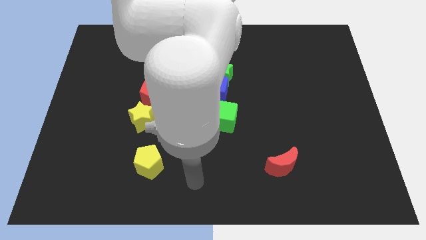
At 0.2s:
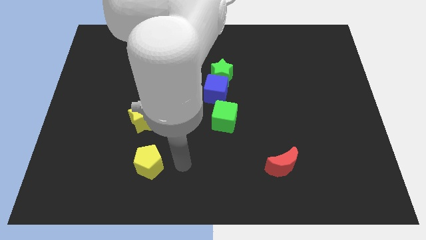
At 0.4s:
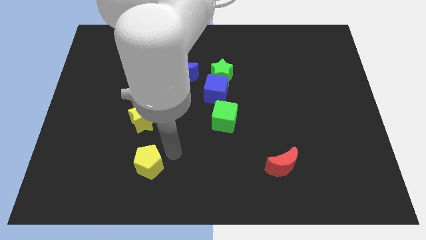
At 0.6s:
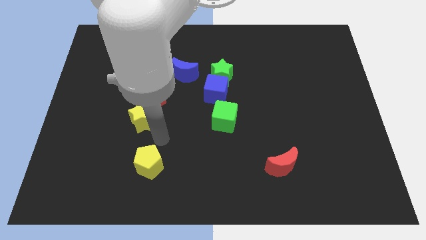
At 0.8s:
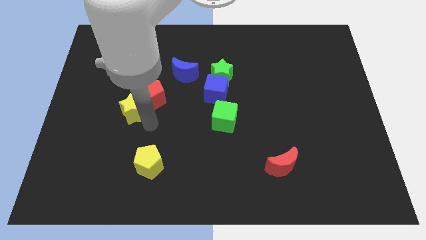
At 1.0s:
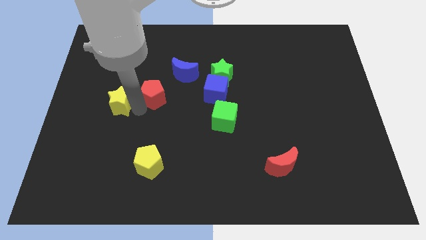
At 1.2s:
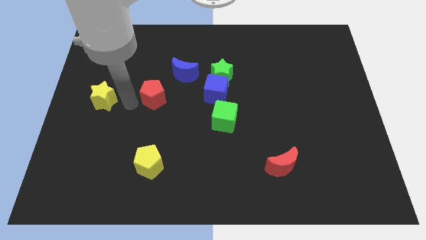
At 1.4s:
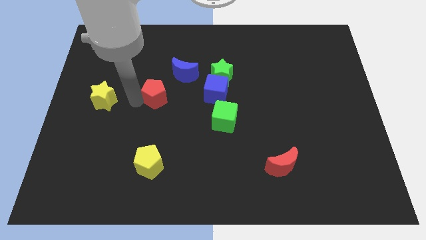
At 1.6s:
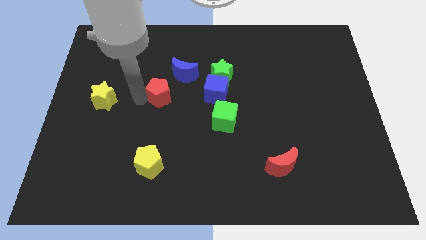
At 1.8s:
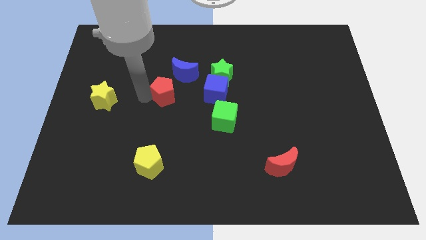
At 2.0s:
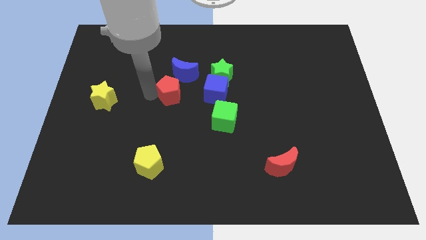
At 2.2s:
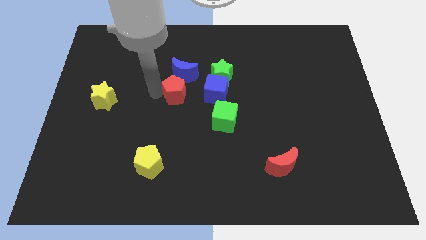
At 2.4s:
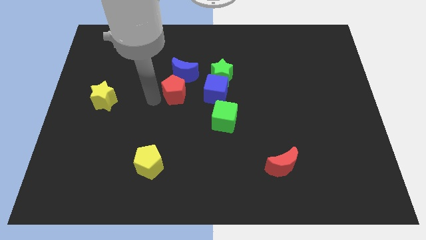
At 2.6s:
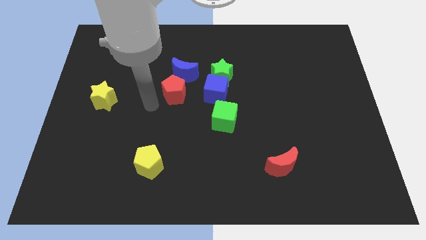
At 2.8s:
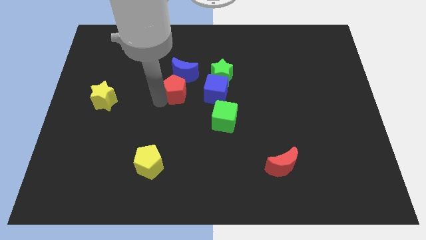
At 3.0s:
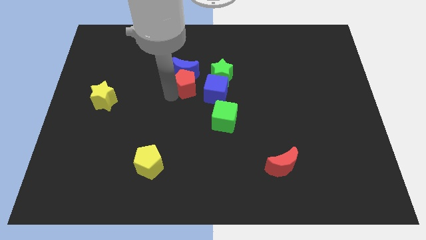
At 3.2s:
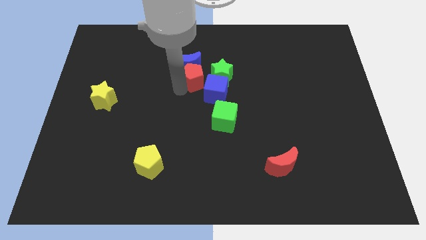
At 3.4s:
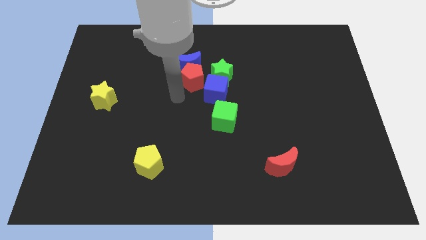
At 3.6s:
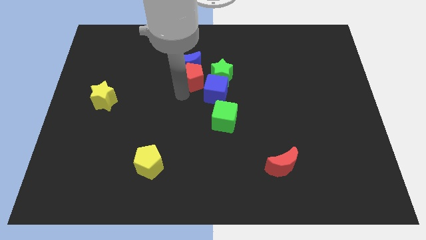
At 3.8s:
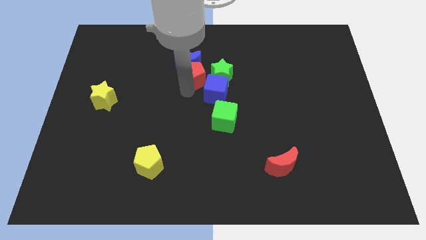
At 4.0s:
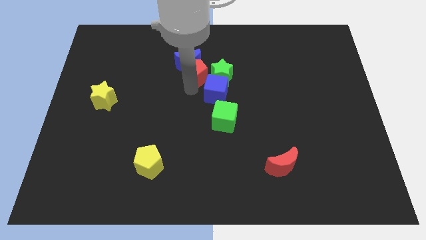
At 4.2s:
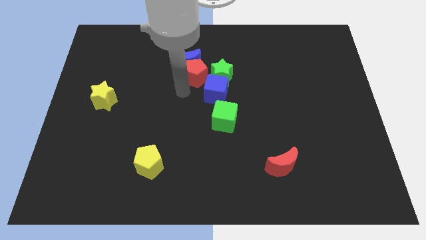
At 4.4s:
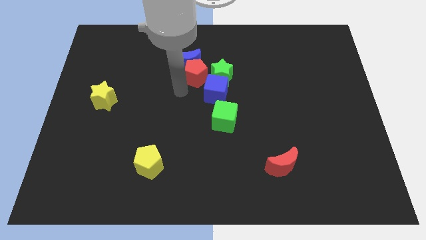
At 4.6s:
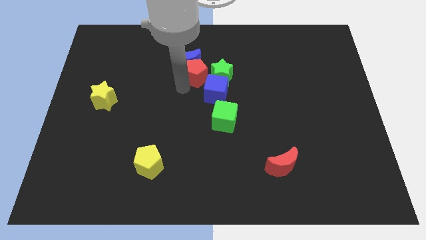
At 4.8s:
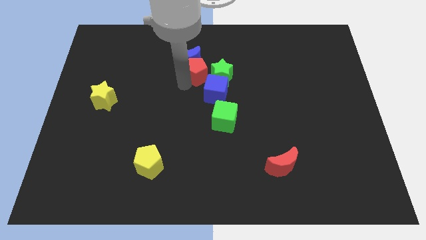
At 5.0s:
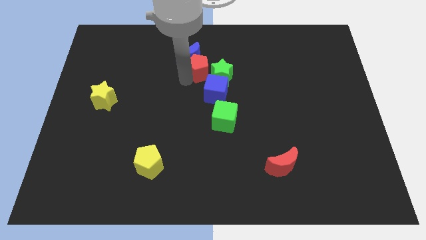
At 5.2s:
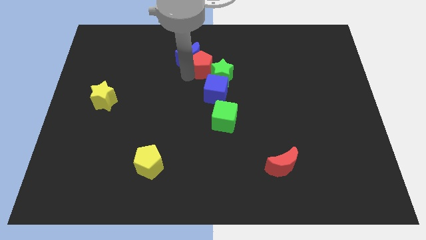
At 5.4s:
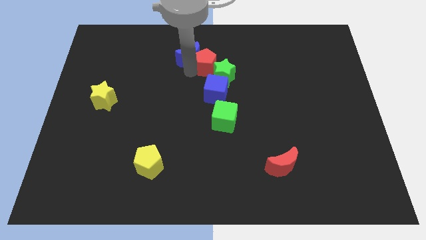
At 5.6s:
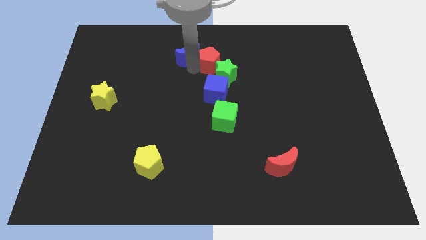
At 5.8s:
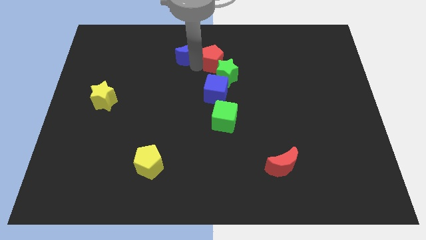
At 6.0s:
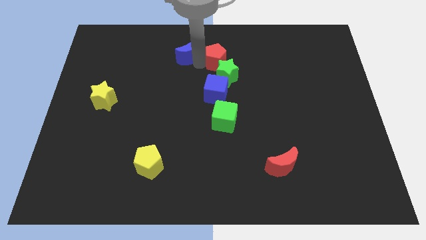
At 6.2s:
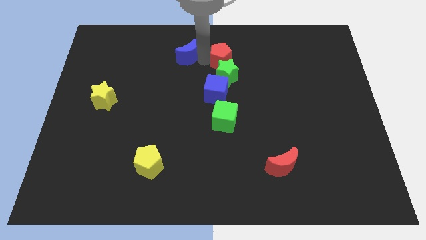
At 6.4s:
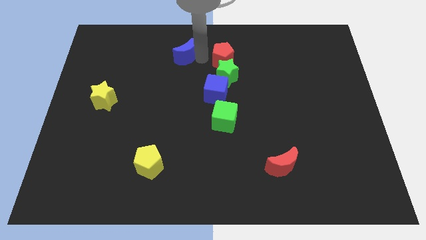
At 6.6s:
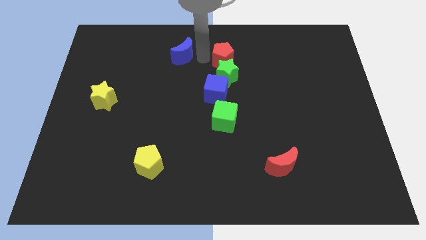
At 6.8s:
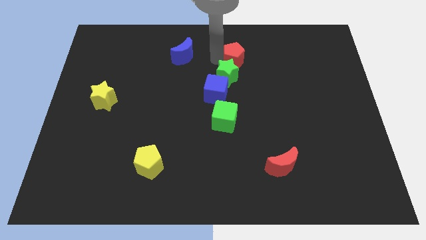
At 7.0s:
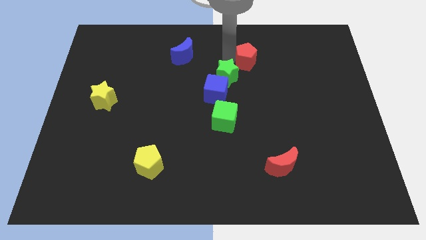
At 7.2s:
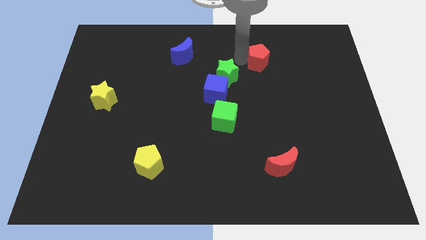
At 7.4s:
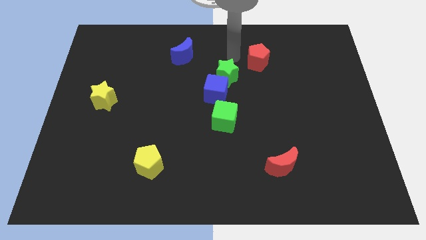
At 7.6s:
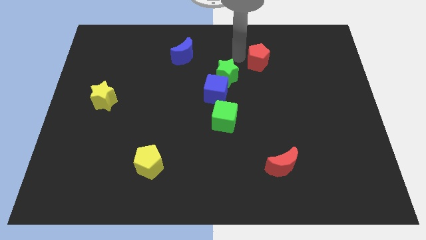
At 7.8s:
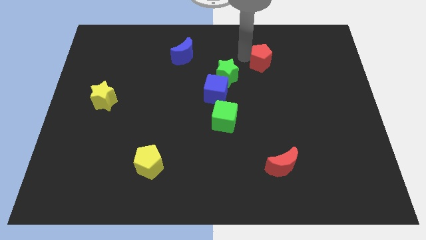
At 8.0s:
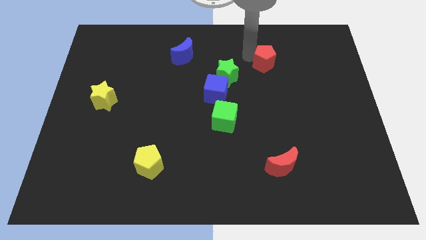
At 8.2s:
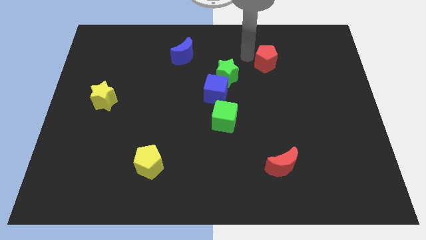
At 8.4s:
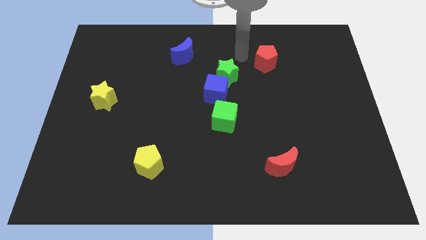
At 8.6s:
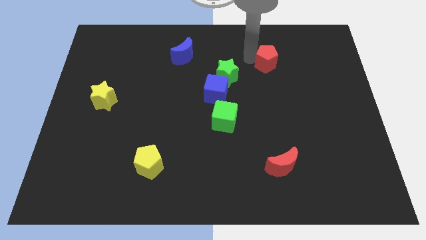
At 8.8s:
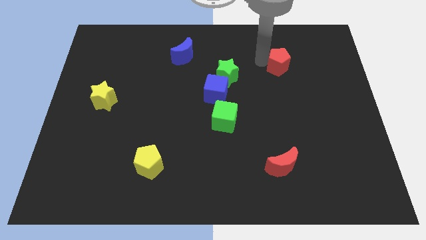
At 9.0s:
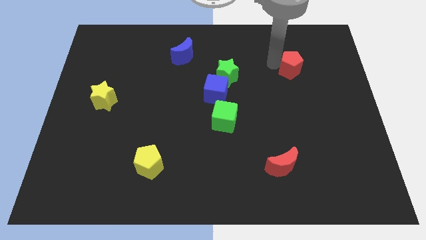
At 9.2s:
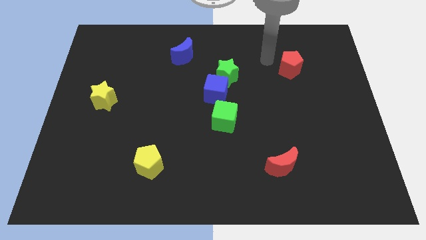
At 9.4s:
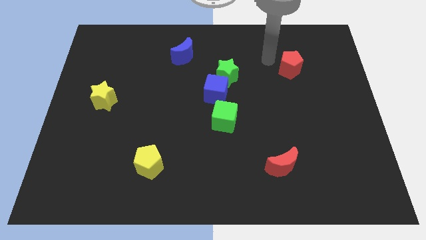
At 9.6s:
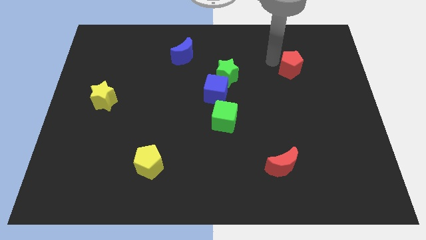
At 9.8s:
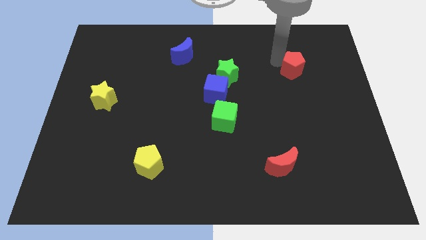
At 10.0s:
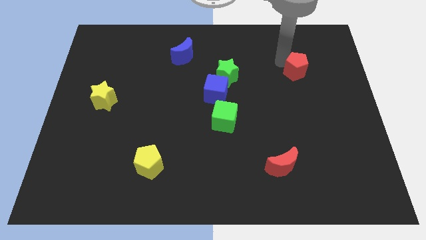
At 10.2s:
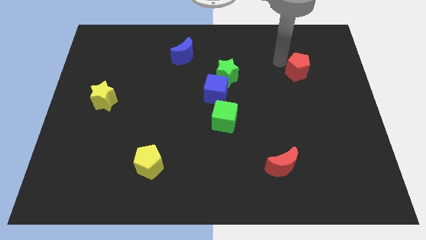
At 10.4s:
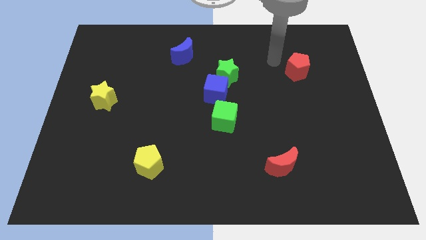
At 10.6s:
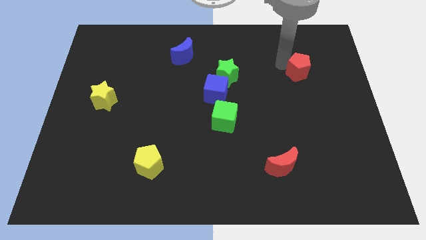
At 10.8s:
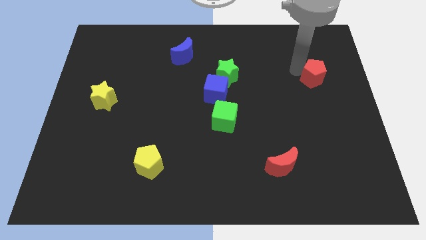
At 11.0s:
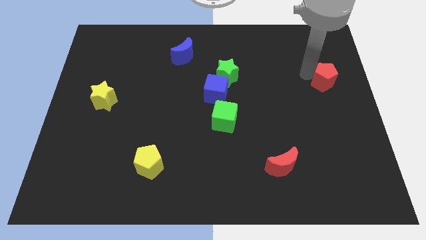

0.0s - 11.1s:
move the red pentagon to the right side of the board
